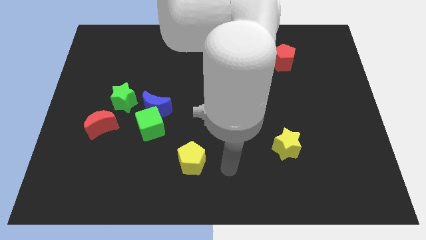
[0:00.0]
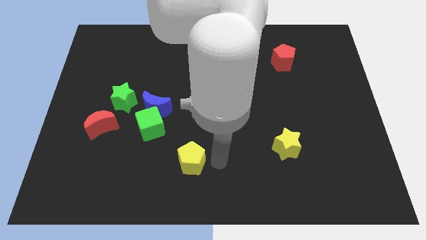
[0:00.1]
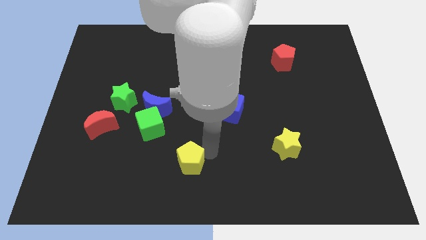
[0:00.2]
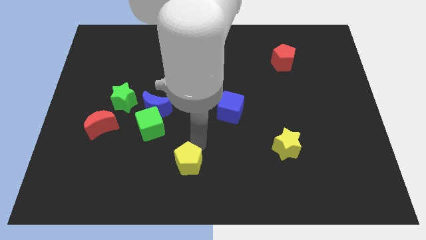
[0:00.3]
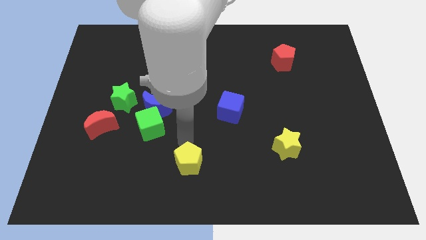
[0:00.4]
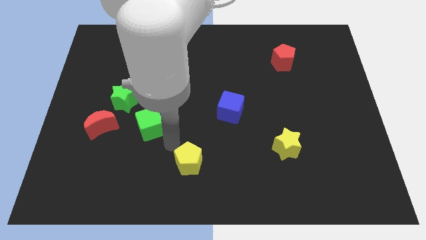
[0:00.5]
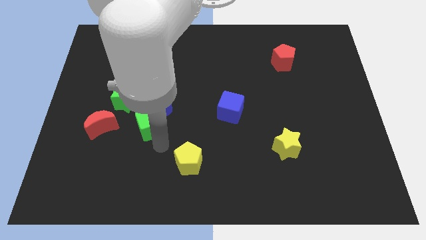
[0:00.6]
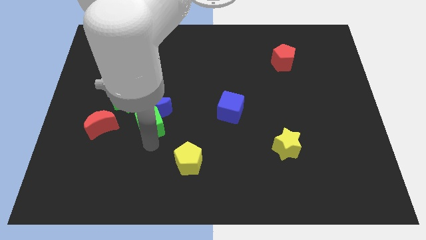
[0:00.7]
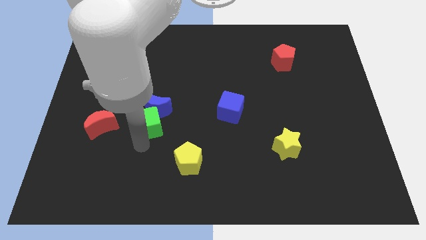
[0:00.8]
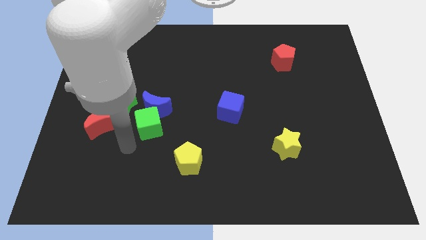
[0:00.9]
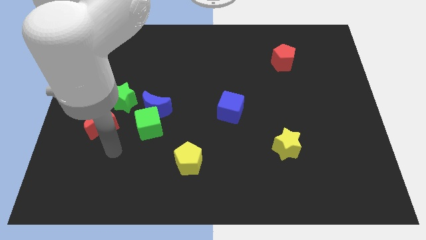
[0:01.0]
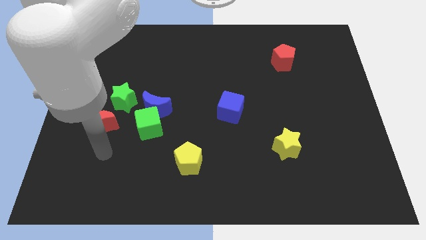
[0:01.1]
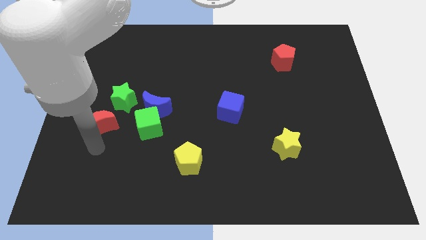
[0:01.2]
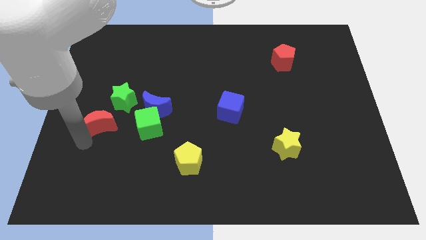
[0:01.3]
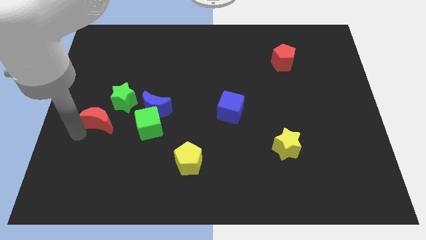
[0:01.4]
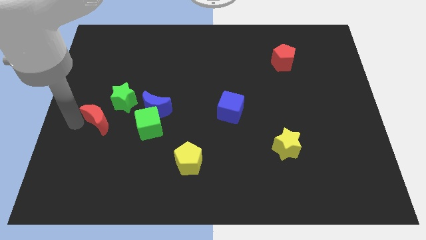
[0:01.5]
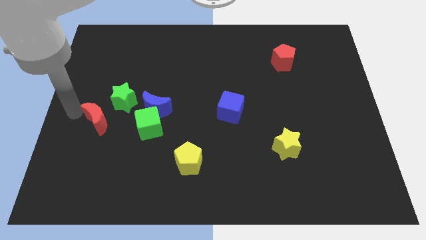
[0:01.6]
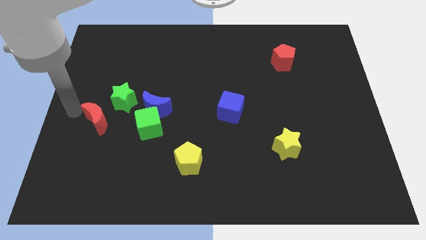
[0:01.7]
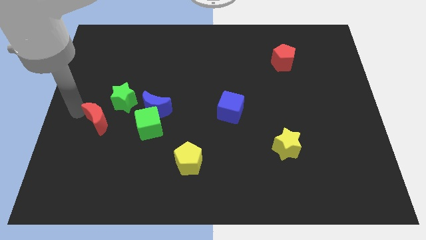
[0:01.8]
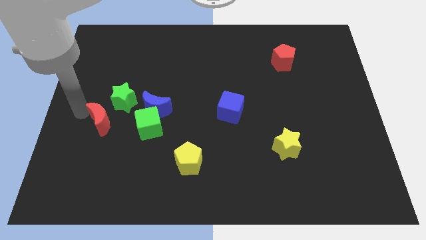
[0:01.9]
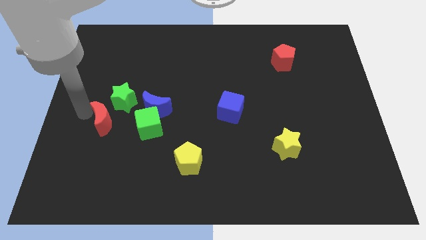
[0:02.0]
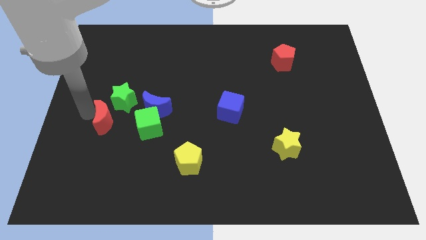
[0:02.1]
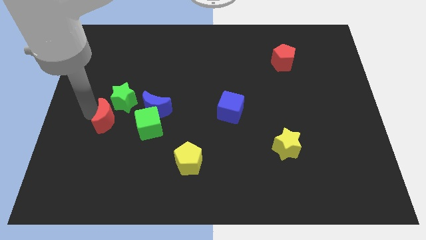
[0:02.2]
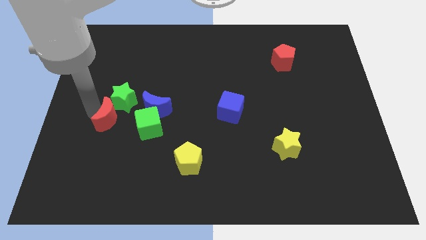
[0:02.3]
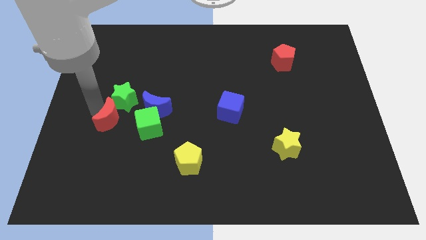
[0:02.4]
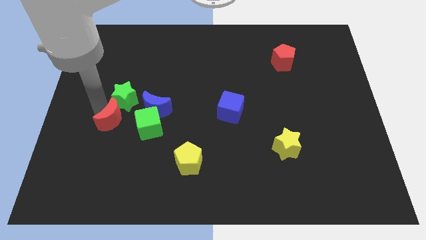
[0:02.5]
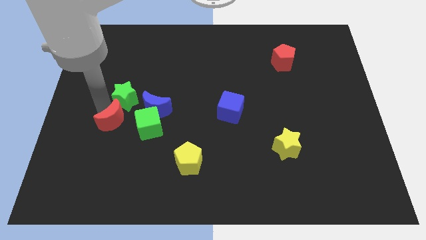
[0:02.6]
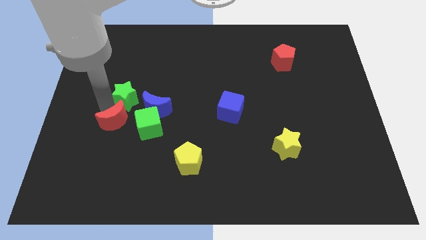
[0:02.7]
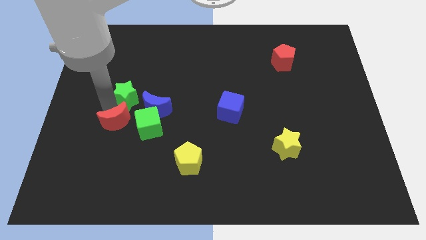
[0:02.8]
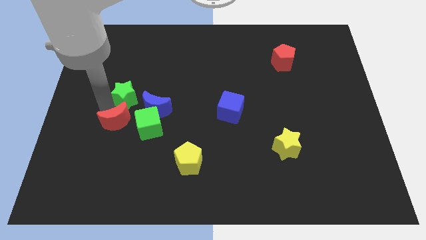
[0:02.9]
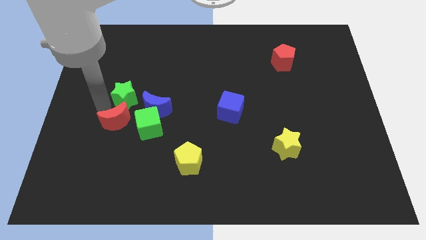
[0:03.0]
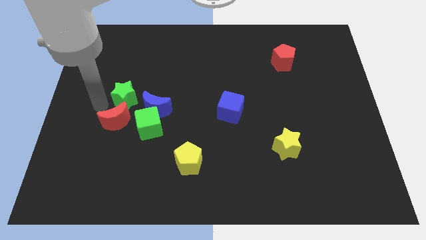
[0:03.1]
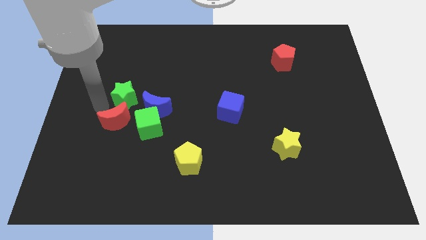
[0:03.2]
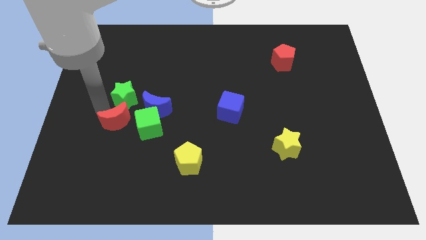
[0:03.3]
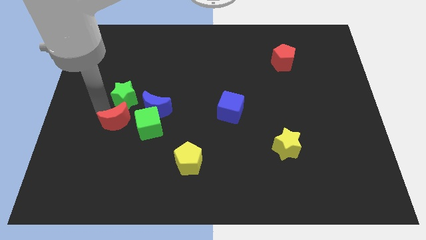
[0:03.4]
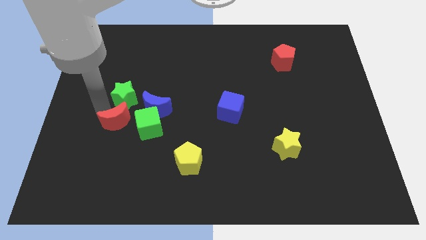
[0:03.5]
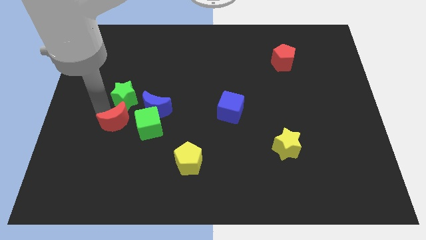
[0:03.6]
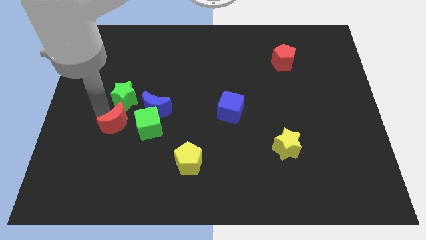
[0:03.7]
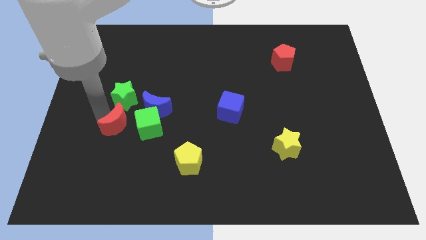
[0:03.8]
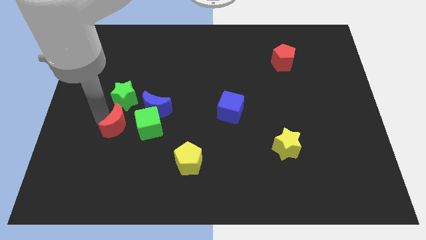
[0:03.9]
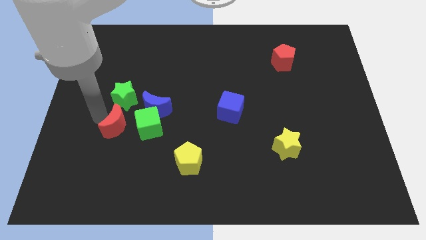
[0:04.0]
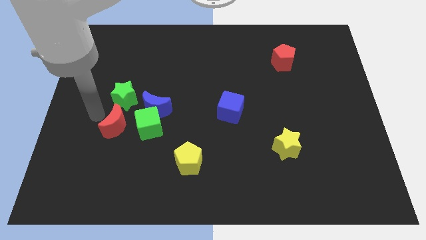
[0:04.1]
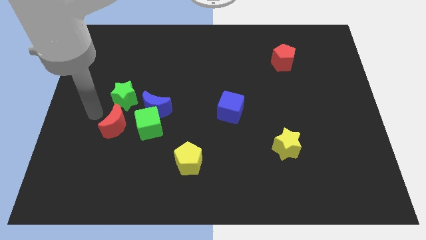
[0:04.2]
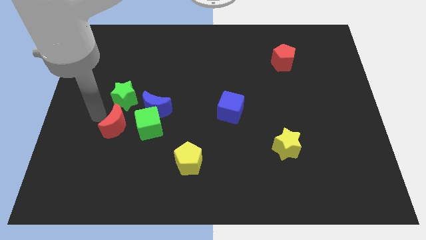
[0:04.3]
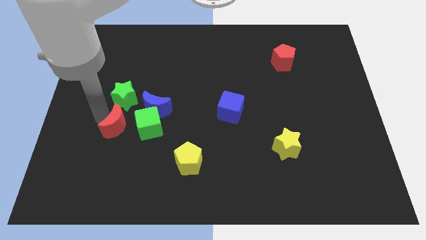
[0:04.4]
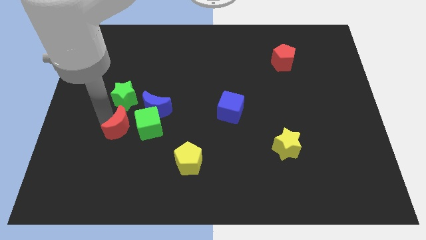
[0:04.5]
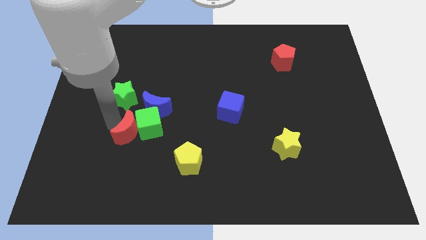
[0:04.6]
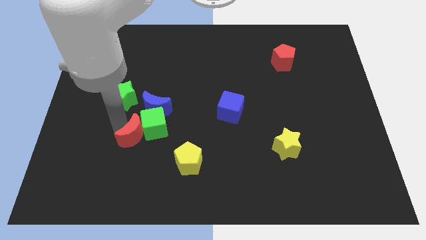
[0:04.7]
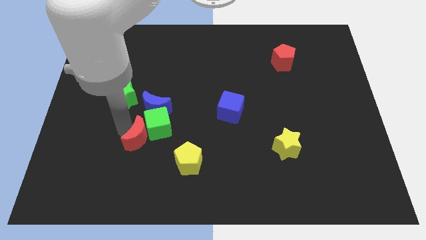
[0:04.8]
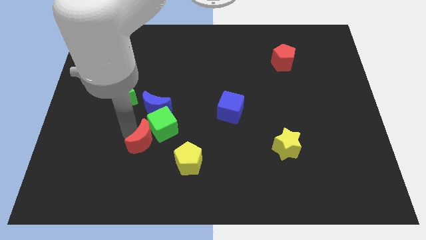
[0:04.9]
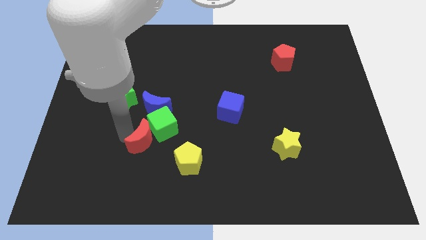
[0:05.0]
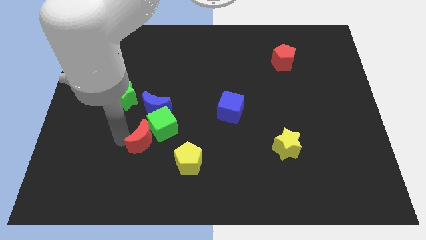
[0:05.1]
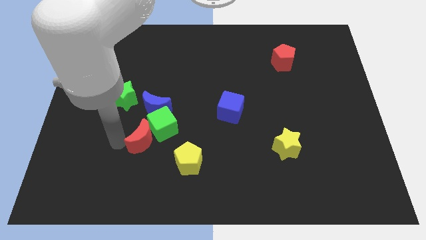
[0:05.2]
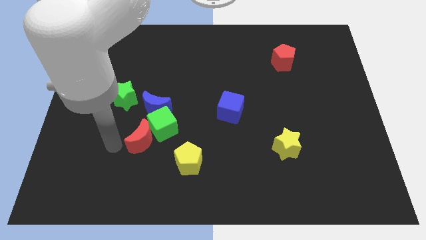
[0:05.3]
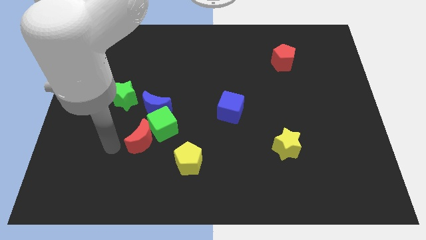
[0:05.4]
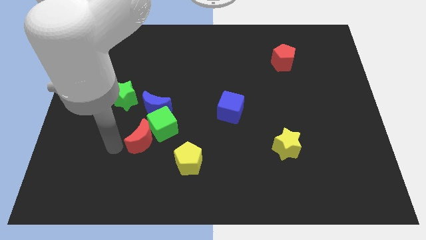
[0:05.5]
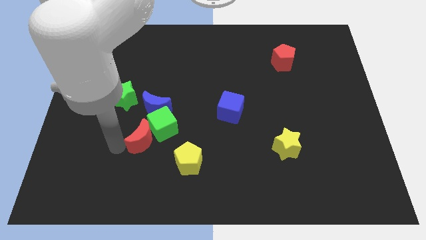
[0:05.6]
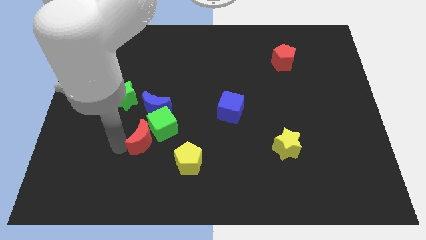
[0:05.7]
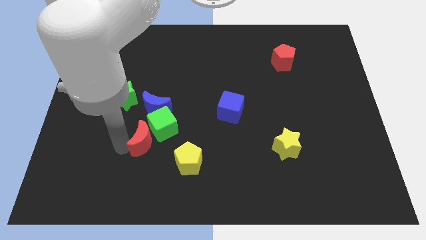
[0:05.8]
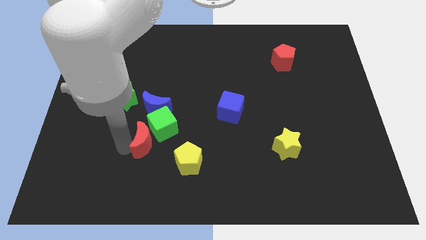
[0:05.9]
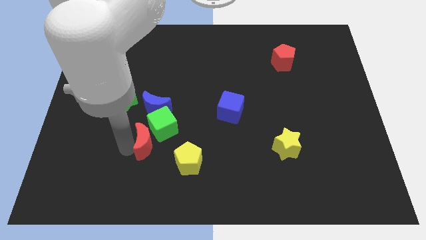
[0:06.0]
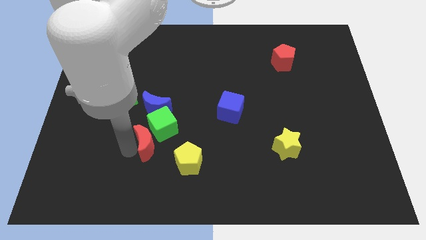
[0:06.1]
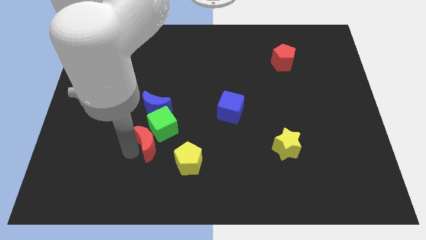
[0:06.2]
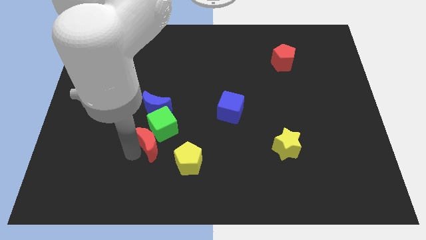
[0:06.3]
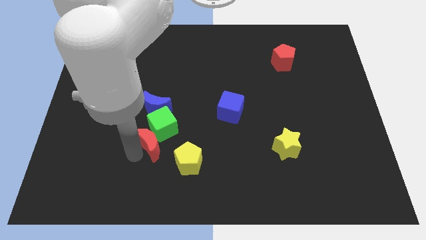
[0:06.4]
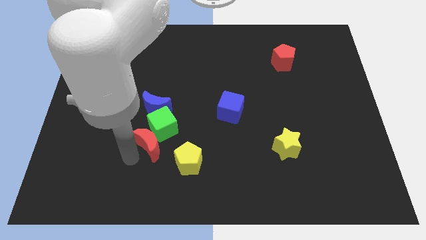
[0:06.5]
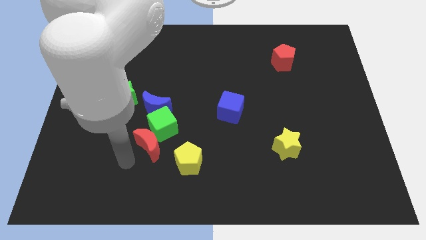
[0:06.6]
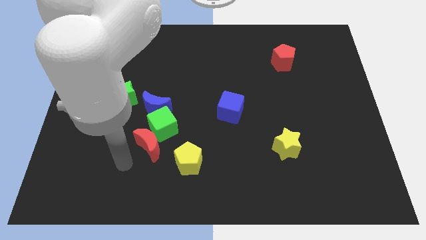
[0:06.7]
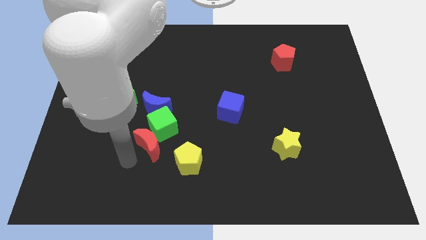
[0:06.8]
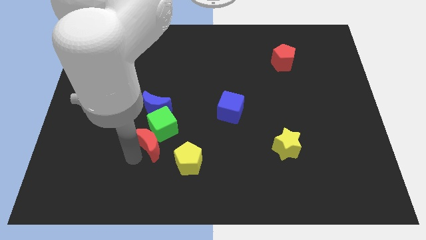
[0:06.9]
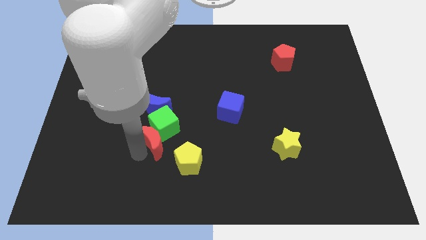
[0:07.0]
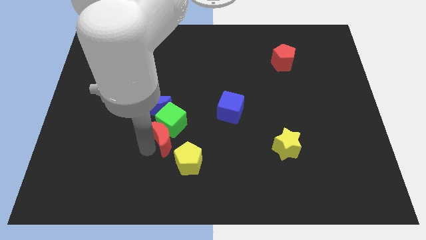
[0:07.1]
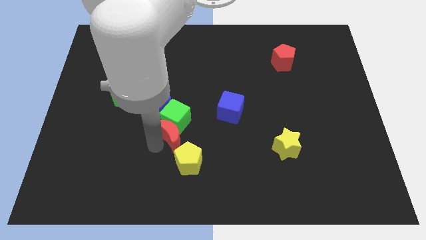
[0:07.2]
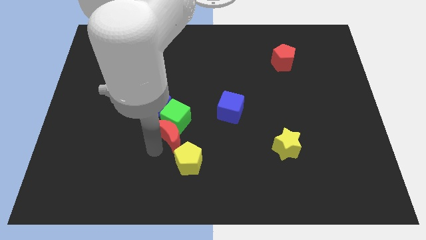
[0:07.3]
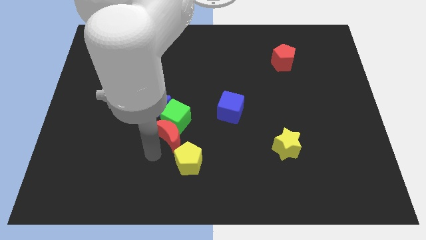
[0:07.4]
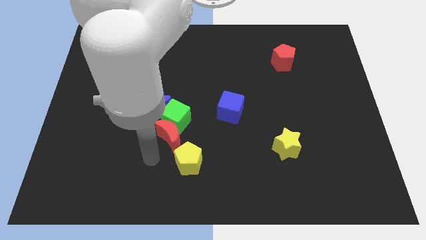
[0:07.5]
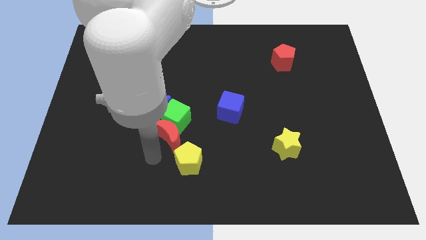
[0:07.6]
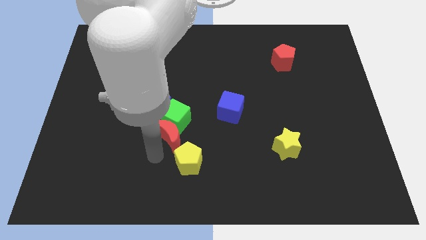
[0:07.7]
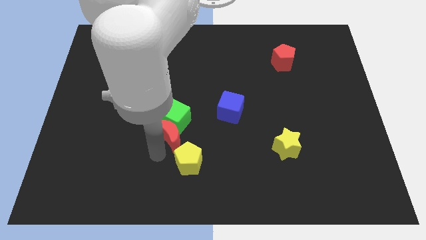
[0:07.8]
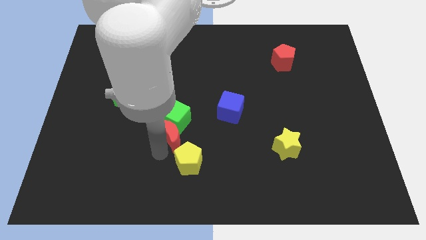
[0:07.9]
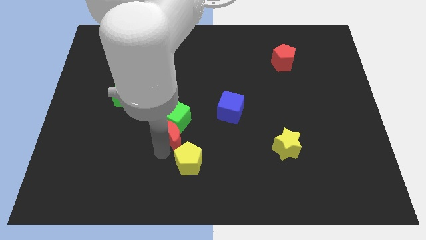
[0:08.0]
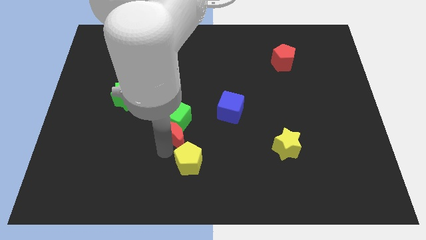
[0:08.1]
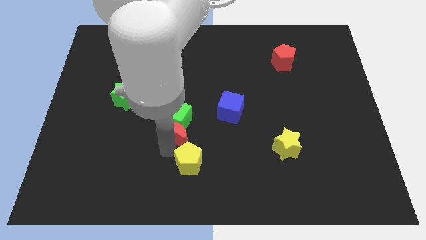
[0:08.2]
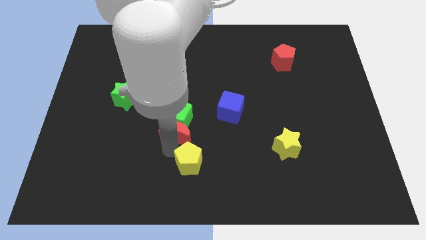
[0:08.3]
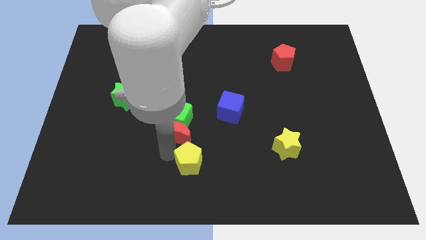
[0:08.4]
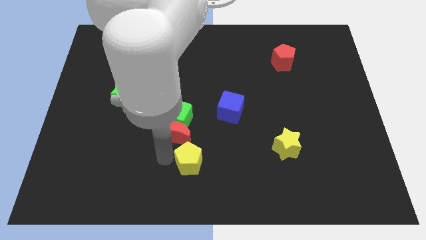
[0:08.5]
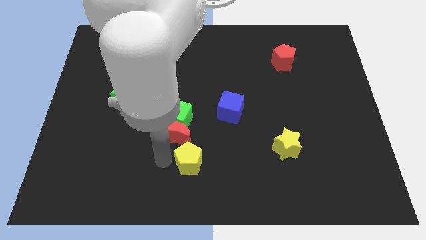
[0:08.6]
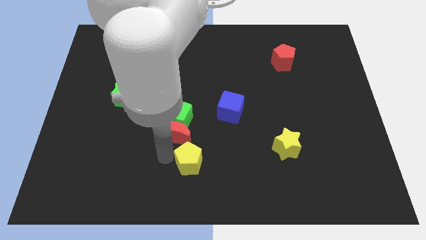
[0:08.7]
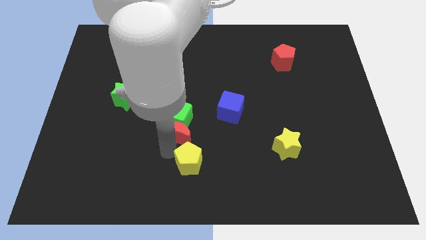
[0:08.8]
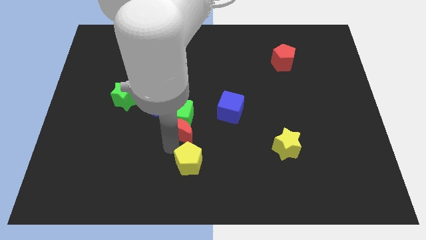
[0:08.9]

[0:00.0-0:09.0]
move the red moon to the center of the board
